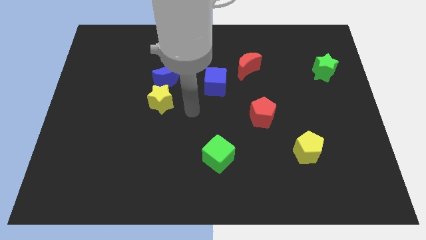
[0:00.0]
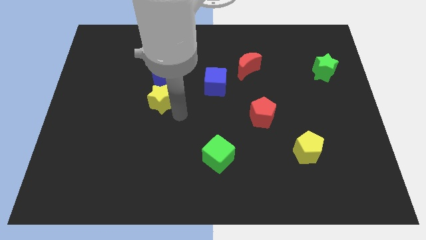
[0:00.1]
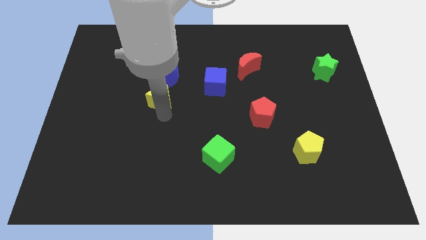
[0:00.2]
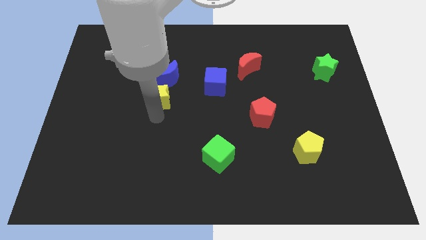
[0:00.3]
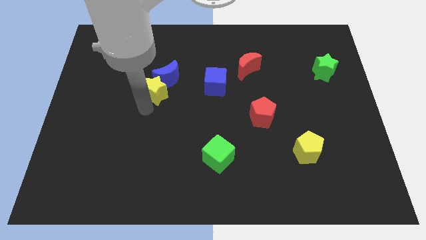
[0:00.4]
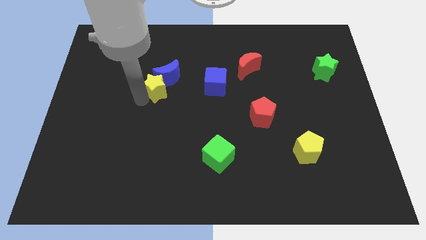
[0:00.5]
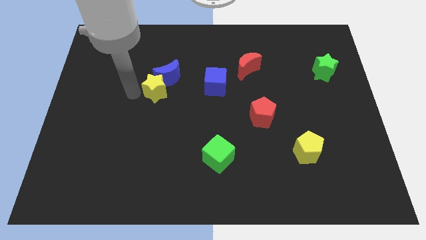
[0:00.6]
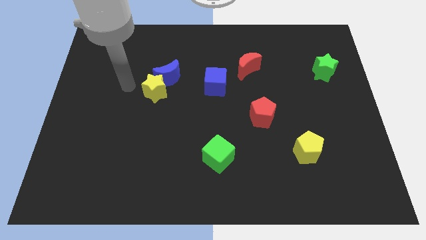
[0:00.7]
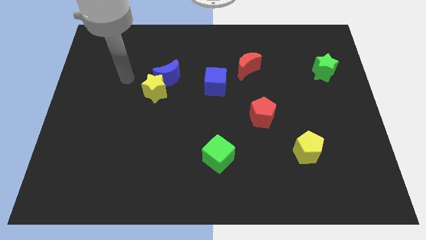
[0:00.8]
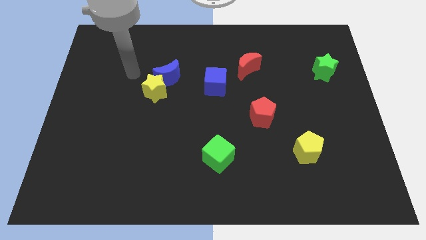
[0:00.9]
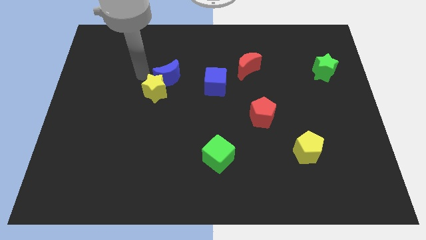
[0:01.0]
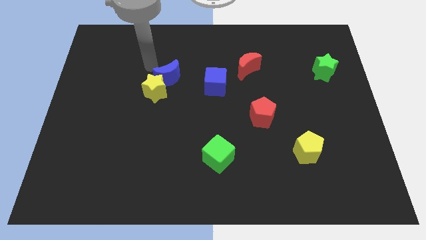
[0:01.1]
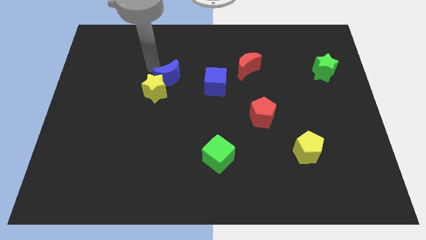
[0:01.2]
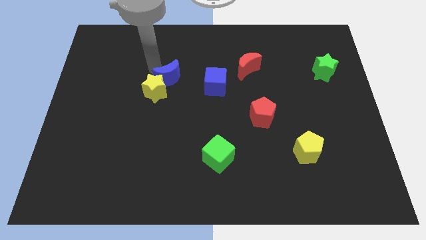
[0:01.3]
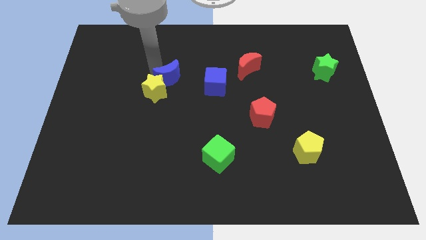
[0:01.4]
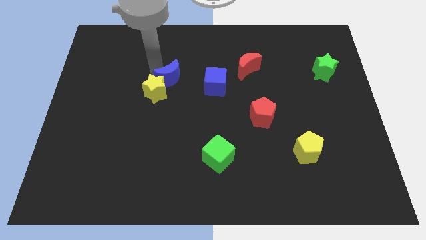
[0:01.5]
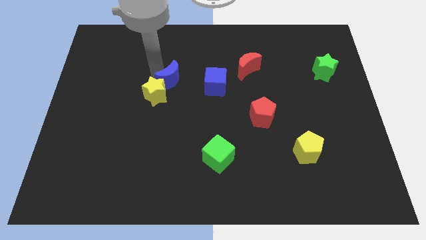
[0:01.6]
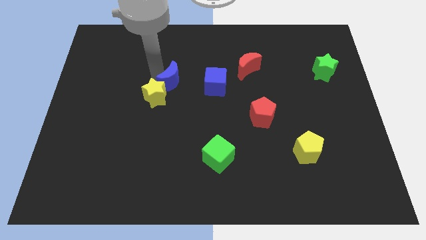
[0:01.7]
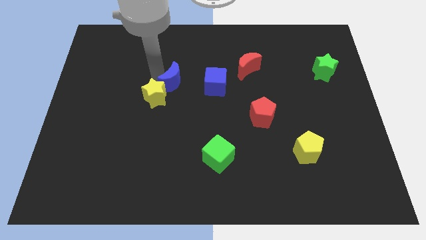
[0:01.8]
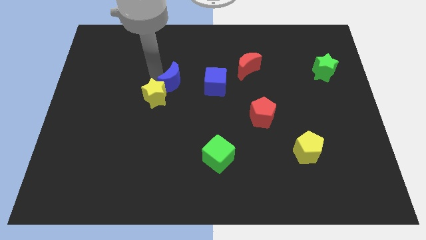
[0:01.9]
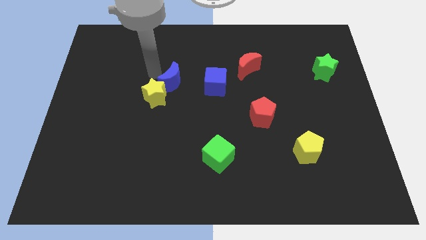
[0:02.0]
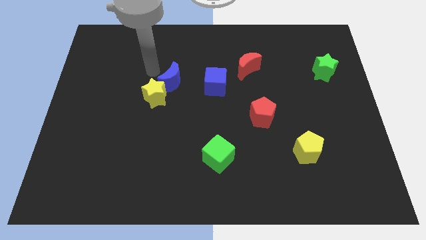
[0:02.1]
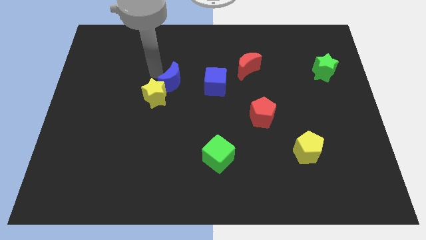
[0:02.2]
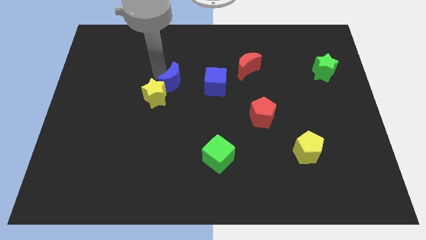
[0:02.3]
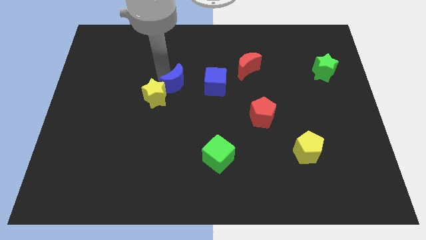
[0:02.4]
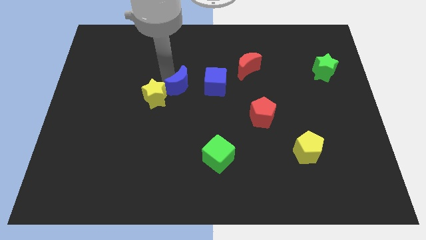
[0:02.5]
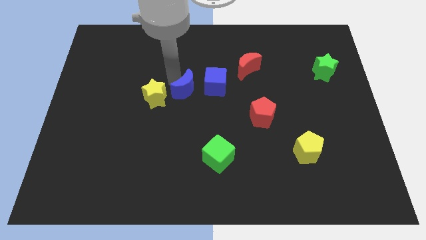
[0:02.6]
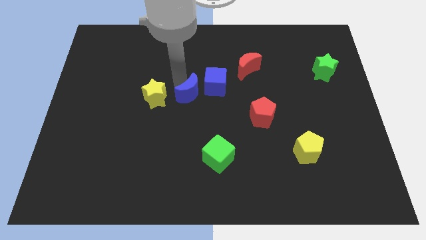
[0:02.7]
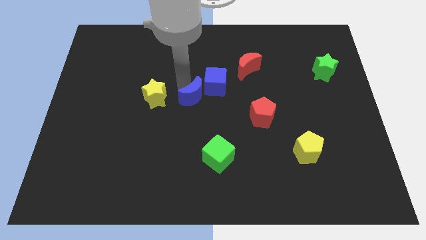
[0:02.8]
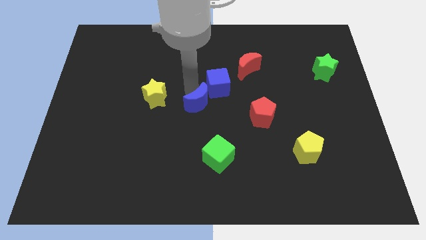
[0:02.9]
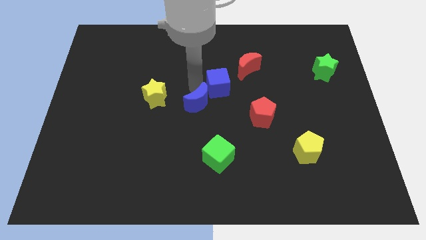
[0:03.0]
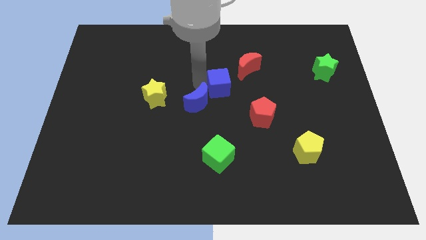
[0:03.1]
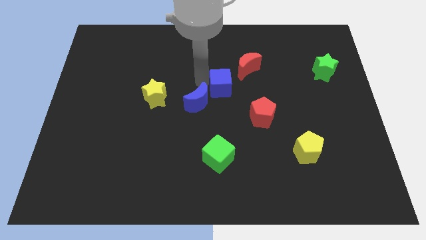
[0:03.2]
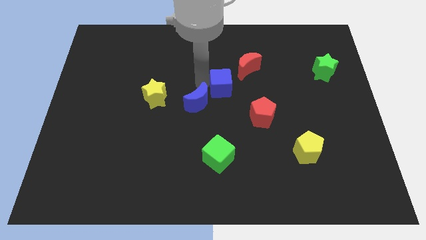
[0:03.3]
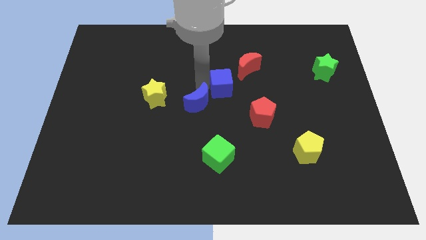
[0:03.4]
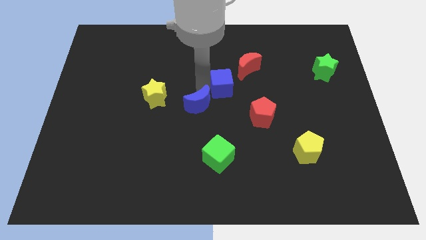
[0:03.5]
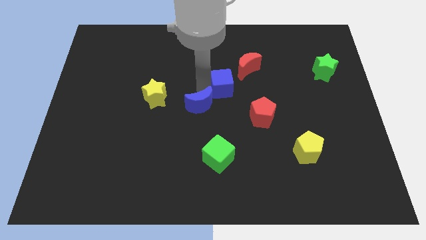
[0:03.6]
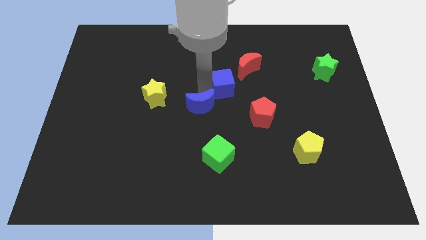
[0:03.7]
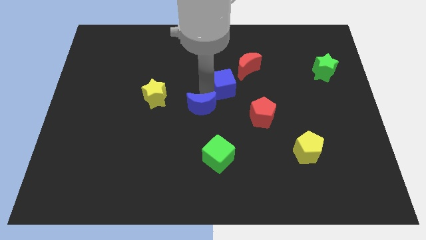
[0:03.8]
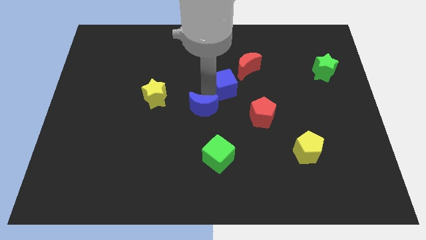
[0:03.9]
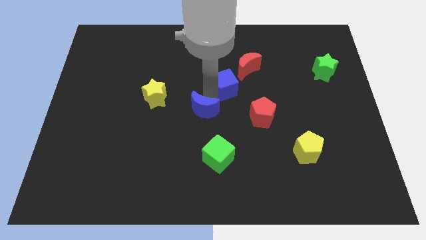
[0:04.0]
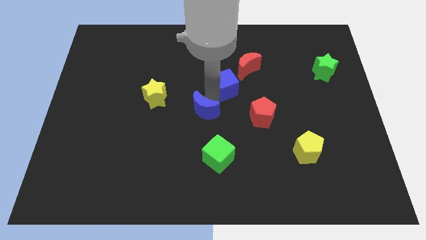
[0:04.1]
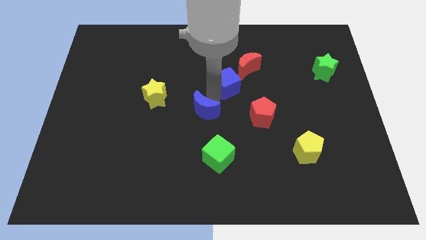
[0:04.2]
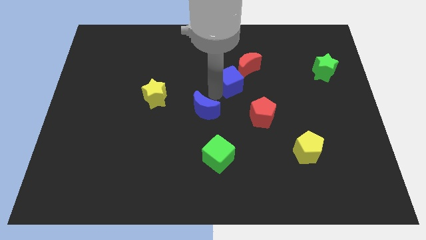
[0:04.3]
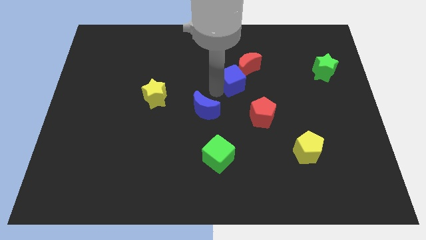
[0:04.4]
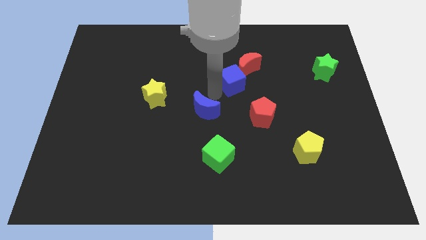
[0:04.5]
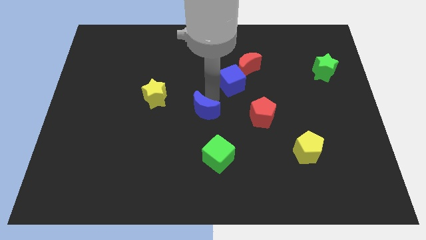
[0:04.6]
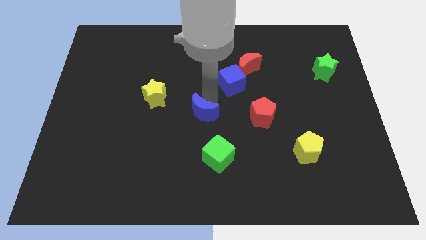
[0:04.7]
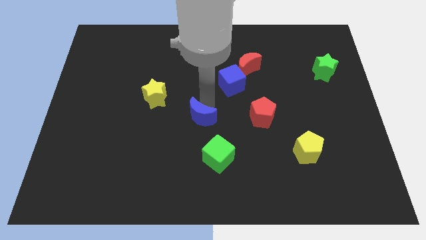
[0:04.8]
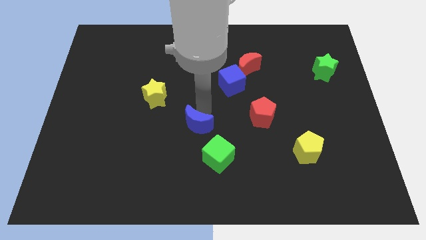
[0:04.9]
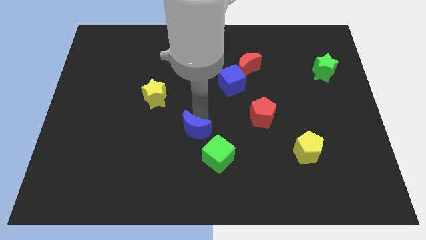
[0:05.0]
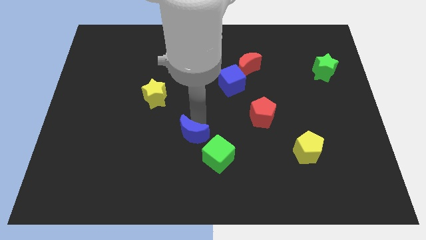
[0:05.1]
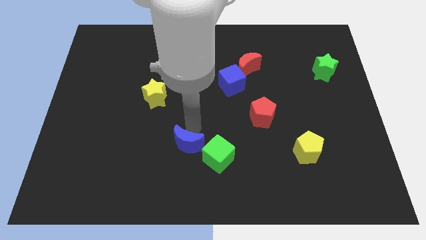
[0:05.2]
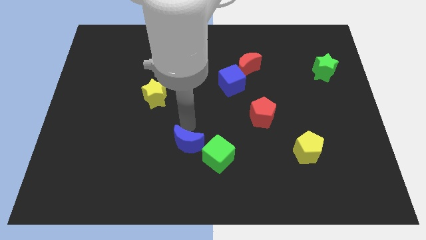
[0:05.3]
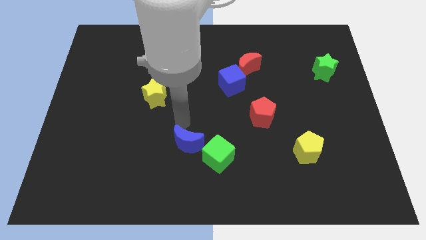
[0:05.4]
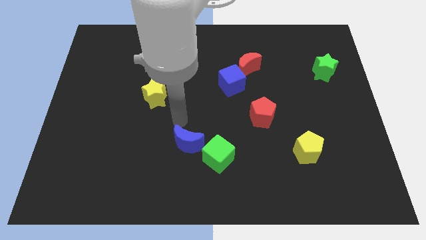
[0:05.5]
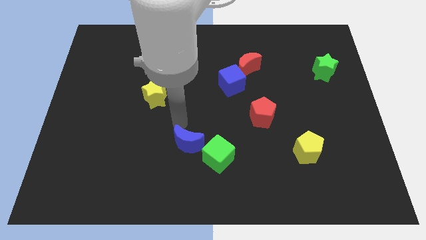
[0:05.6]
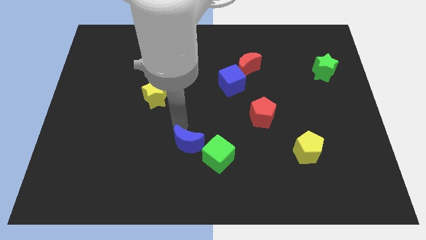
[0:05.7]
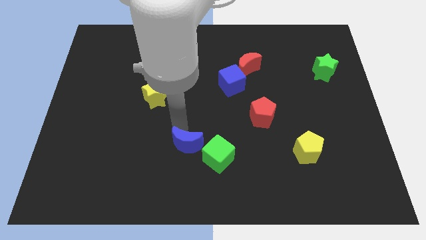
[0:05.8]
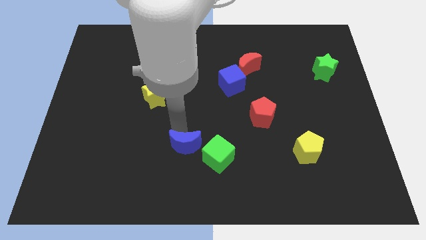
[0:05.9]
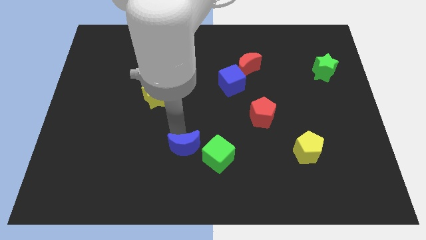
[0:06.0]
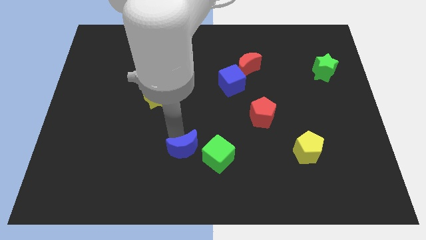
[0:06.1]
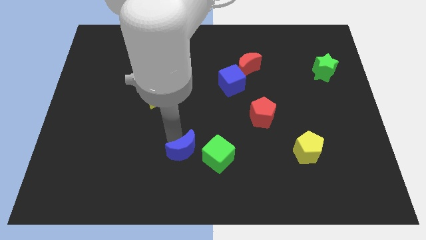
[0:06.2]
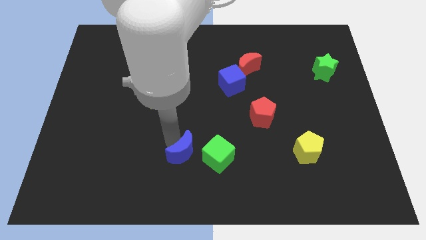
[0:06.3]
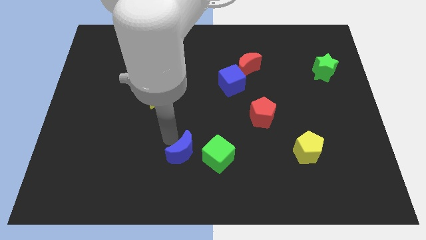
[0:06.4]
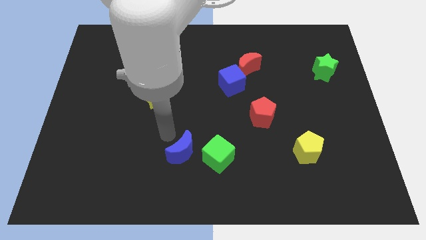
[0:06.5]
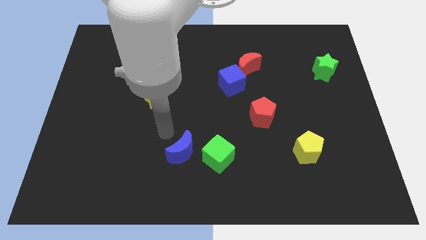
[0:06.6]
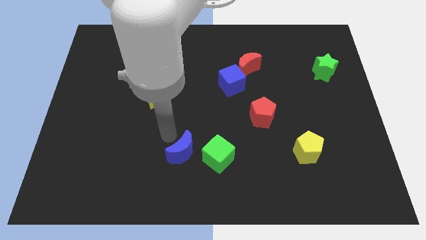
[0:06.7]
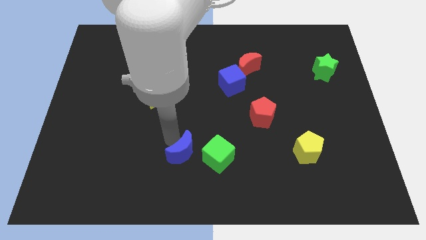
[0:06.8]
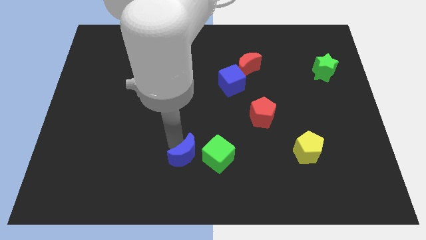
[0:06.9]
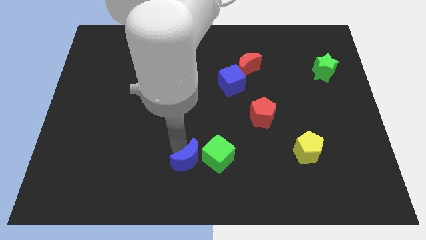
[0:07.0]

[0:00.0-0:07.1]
move the blue moon to the bottom
